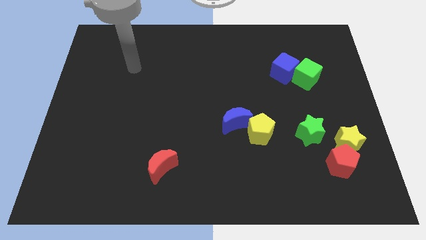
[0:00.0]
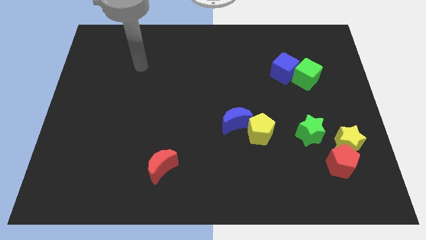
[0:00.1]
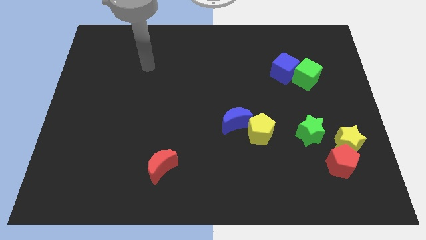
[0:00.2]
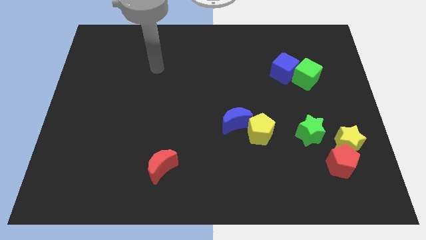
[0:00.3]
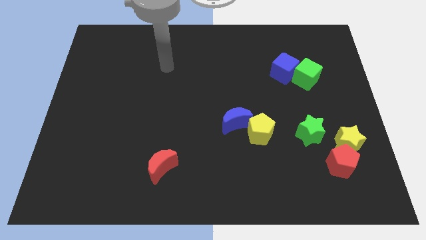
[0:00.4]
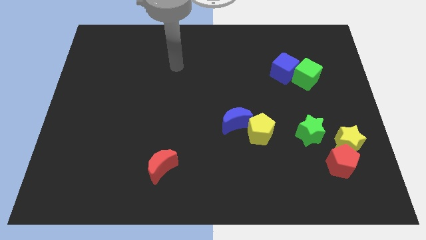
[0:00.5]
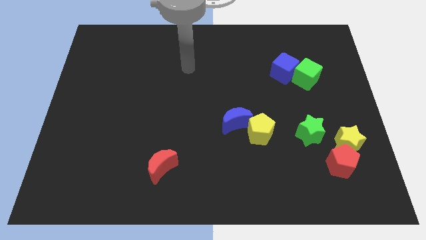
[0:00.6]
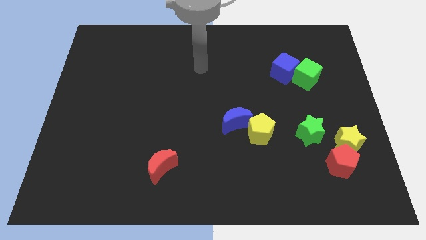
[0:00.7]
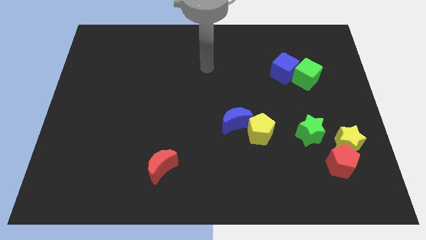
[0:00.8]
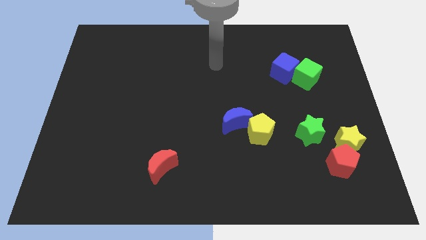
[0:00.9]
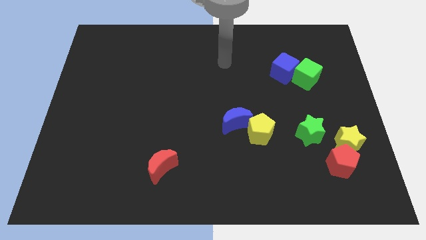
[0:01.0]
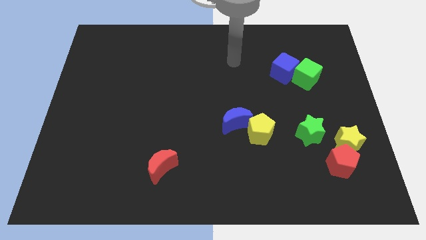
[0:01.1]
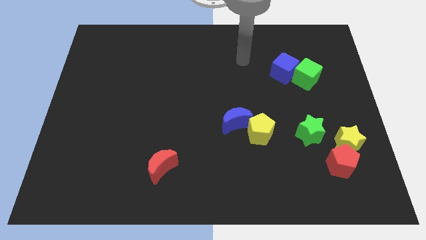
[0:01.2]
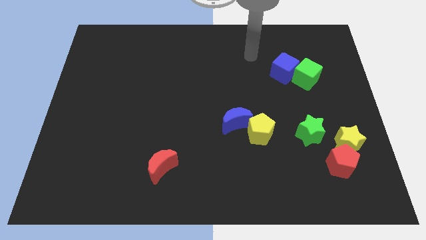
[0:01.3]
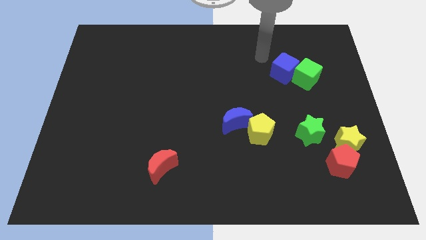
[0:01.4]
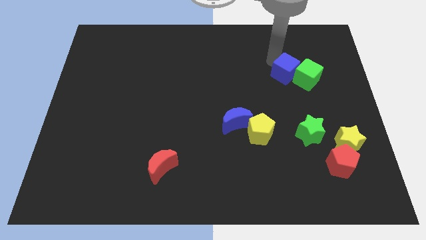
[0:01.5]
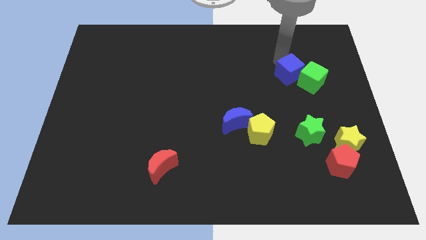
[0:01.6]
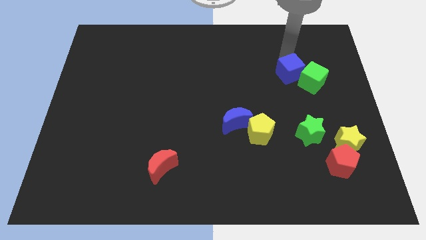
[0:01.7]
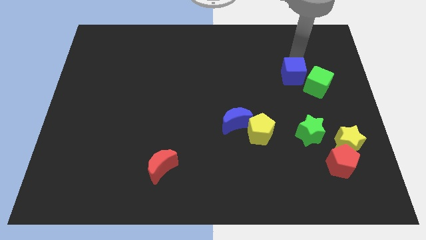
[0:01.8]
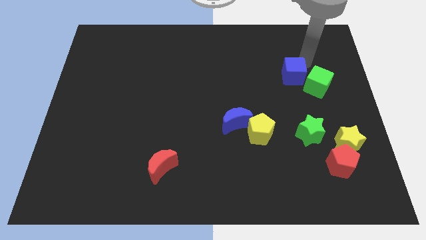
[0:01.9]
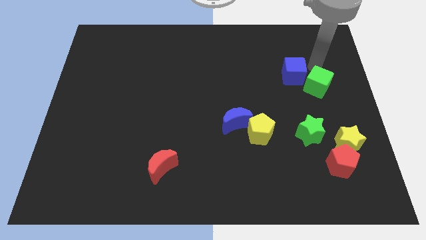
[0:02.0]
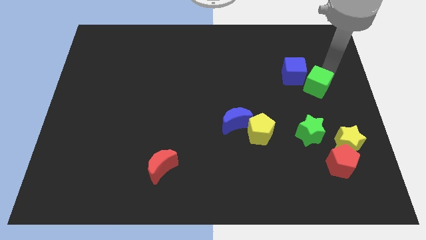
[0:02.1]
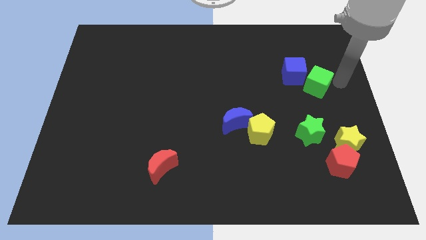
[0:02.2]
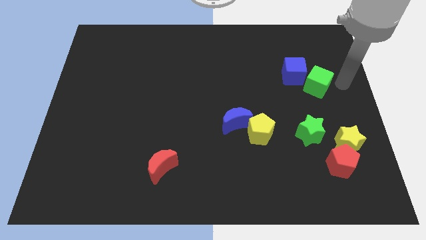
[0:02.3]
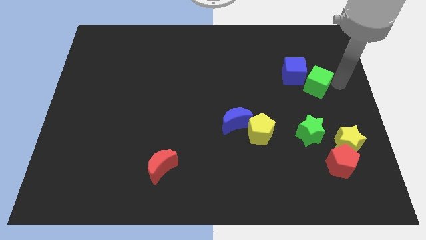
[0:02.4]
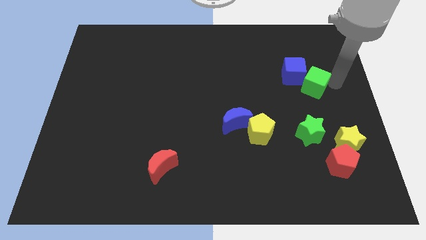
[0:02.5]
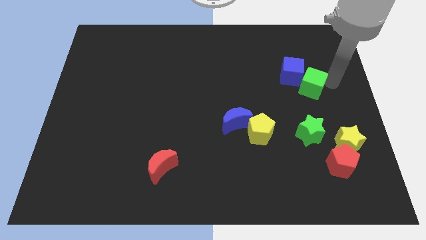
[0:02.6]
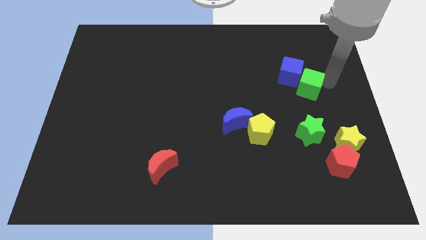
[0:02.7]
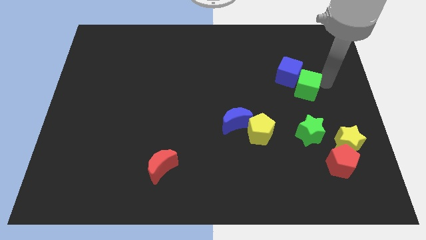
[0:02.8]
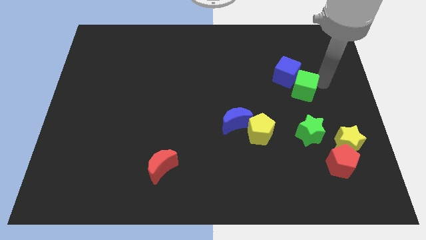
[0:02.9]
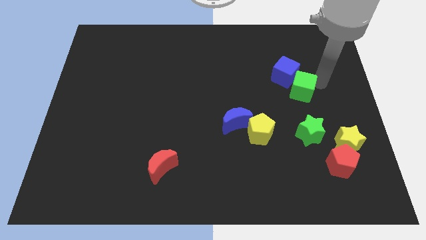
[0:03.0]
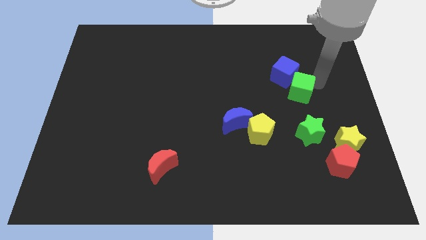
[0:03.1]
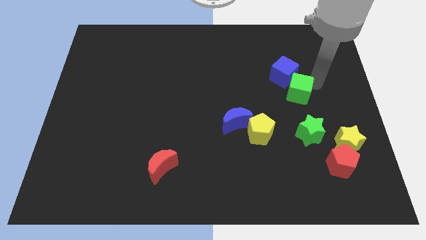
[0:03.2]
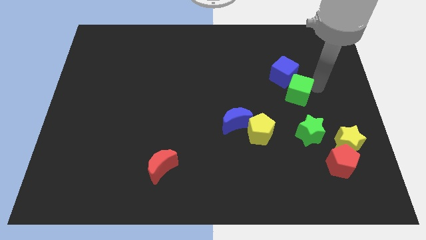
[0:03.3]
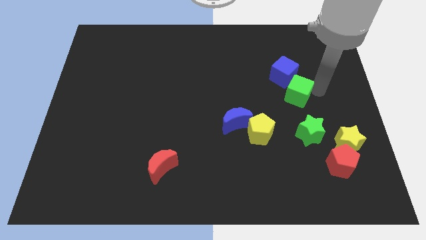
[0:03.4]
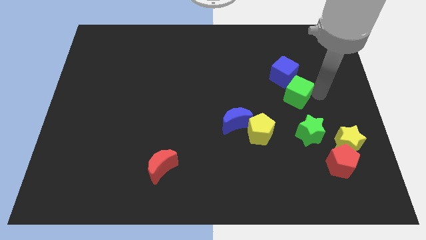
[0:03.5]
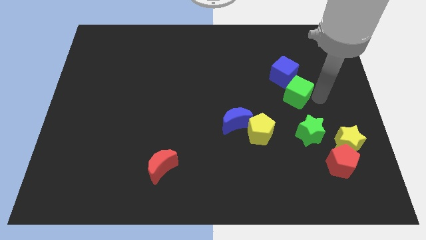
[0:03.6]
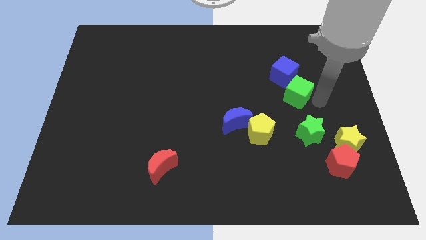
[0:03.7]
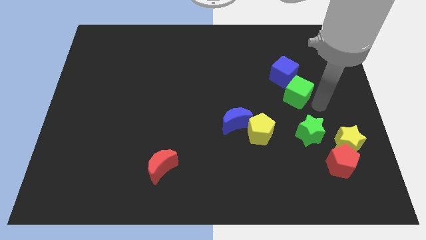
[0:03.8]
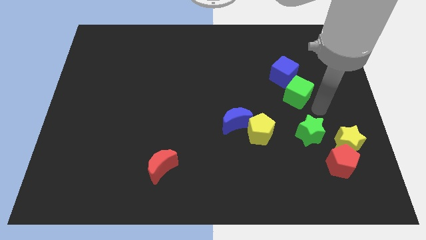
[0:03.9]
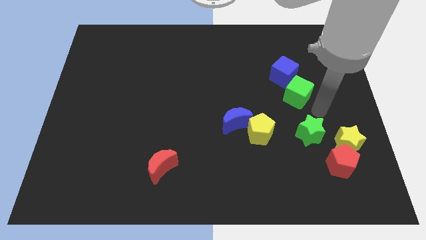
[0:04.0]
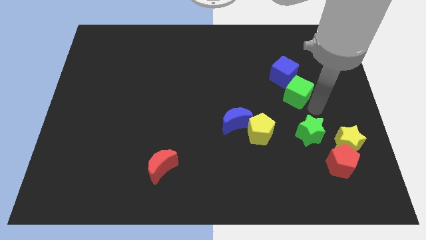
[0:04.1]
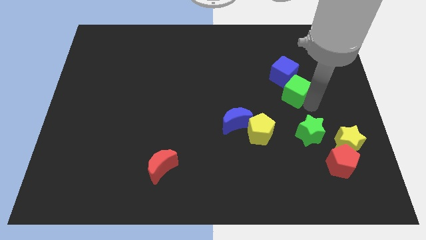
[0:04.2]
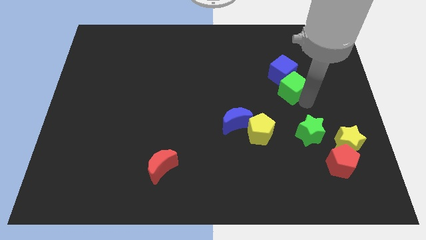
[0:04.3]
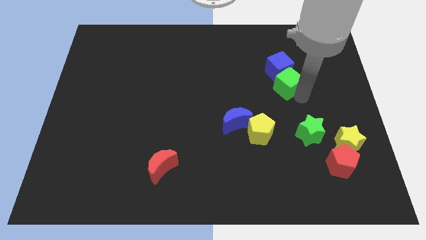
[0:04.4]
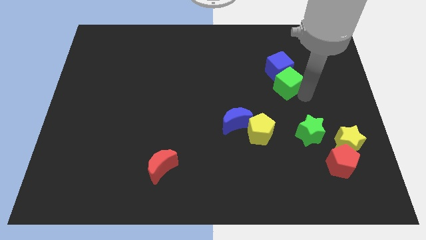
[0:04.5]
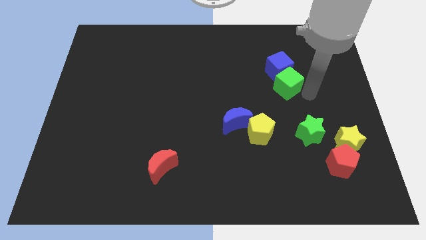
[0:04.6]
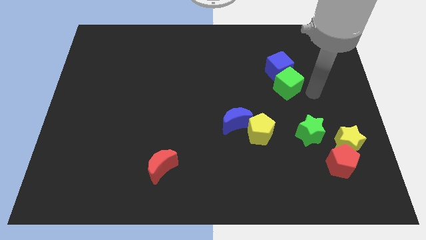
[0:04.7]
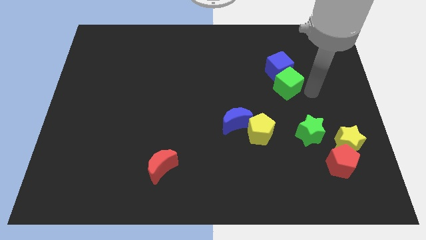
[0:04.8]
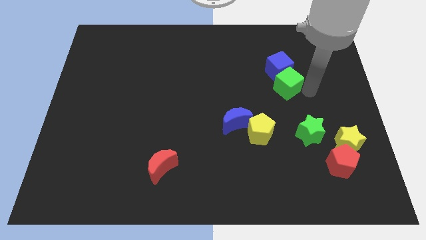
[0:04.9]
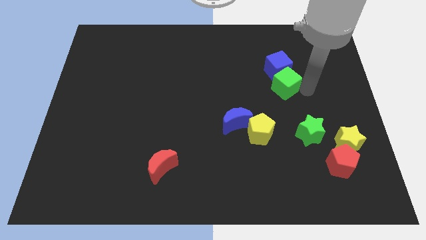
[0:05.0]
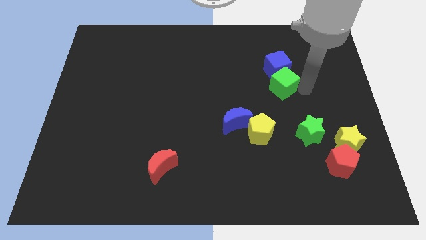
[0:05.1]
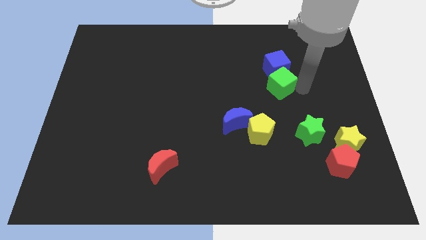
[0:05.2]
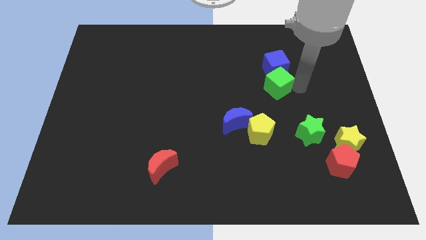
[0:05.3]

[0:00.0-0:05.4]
move the green cube to the left a little bit

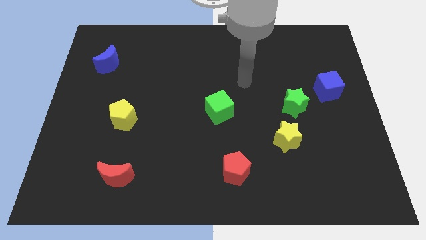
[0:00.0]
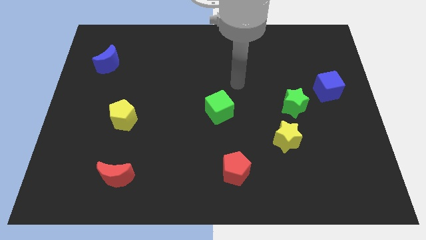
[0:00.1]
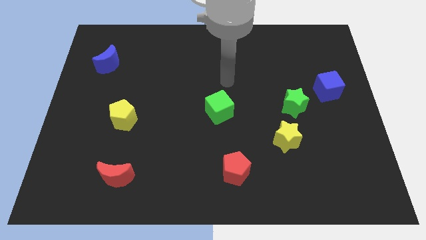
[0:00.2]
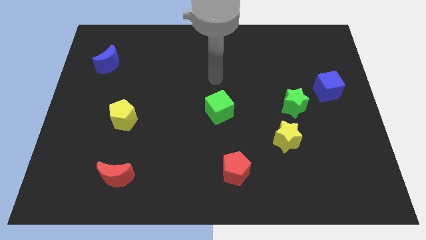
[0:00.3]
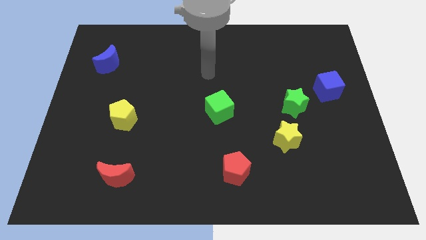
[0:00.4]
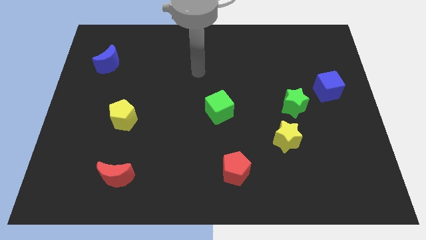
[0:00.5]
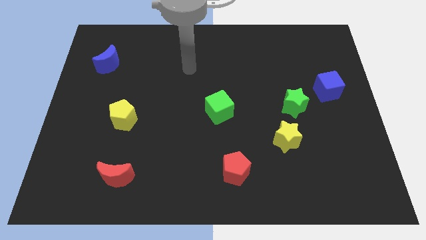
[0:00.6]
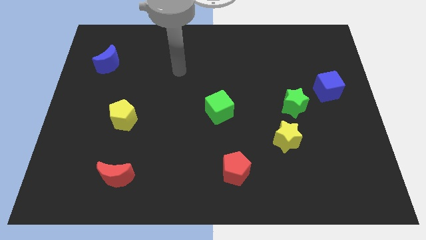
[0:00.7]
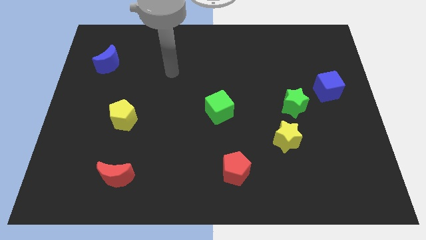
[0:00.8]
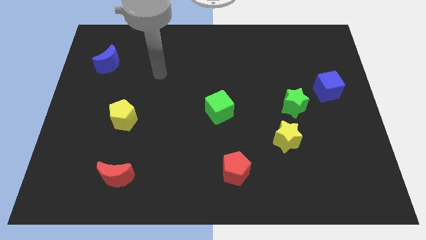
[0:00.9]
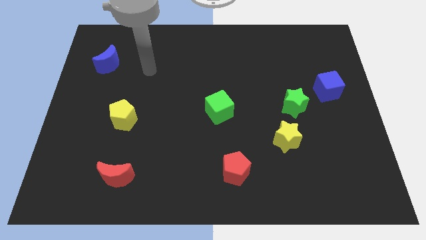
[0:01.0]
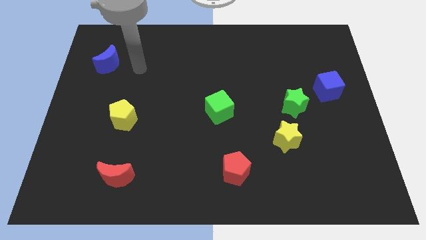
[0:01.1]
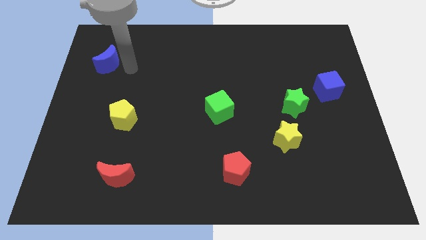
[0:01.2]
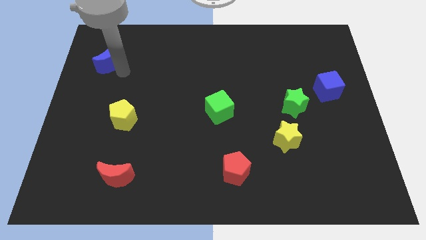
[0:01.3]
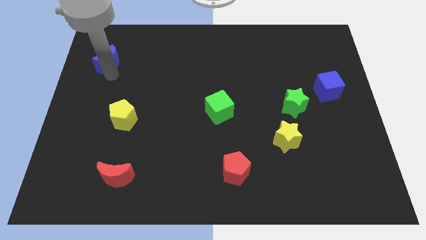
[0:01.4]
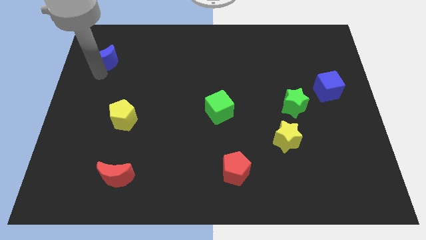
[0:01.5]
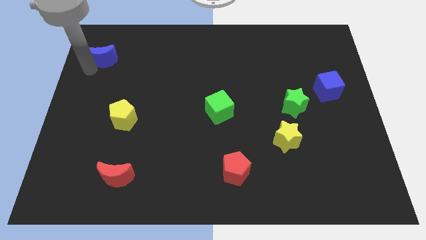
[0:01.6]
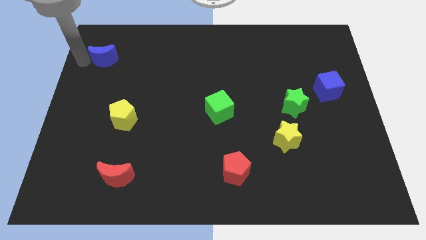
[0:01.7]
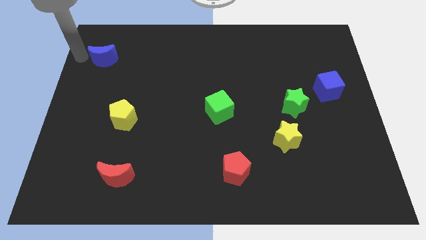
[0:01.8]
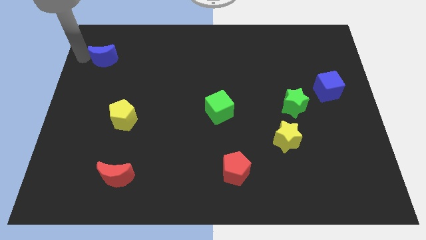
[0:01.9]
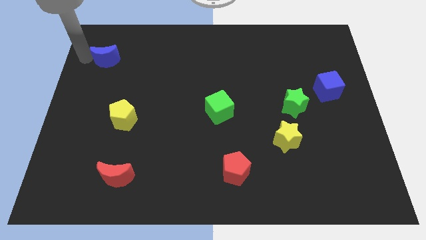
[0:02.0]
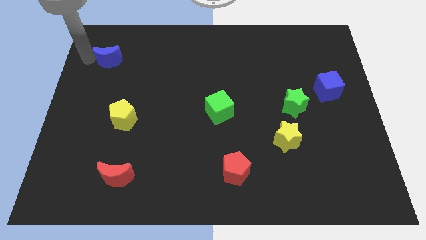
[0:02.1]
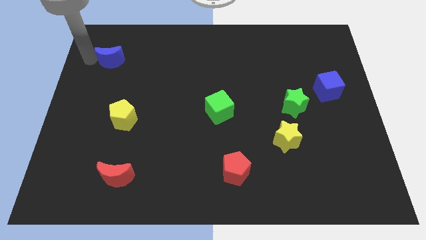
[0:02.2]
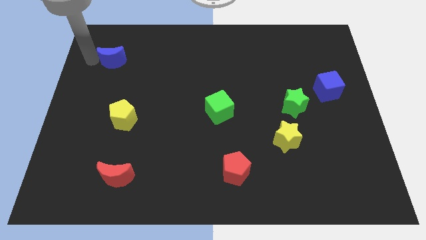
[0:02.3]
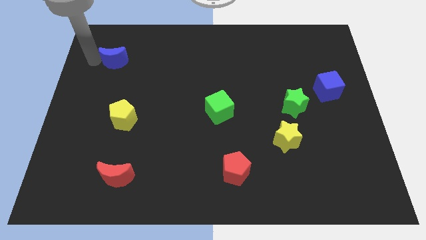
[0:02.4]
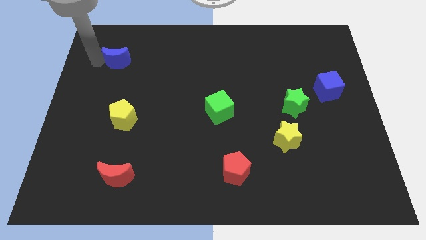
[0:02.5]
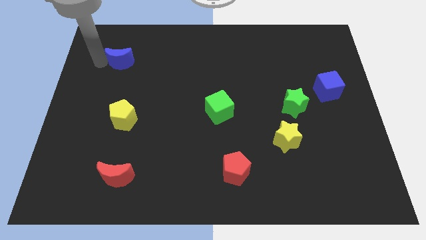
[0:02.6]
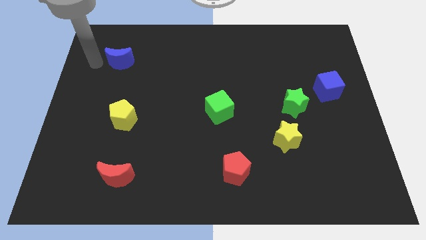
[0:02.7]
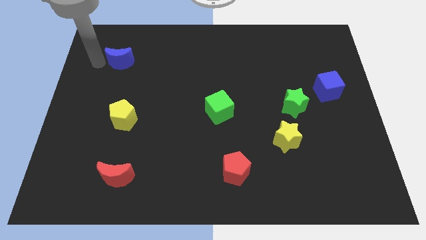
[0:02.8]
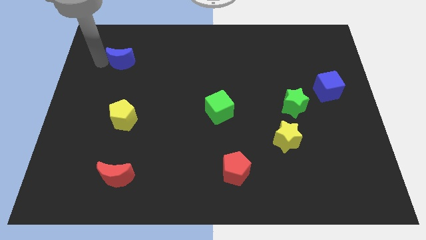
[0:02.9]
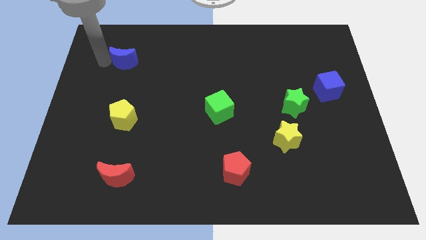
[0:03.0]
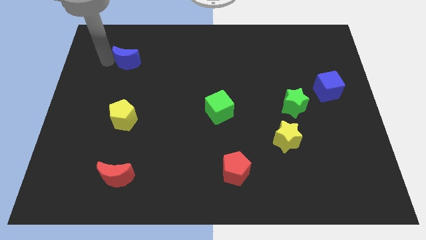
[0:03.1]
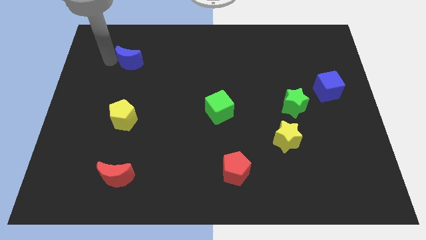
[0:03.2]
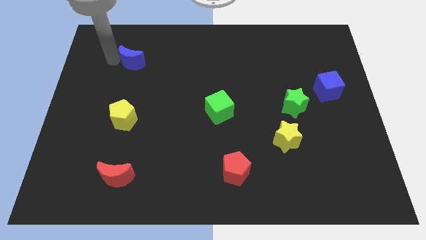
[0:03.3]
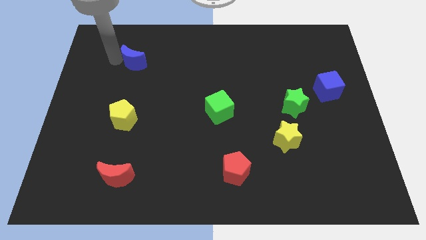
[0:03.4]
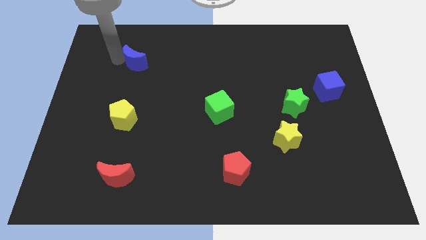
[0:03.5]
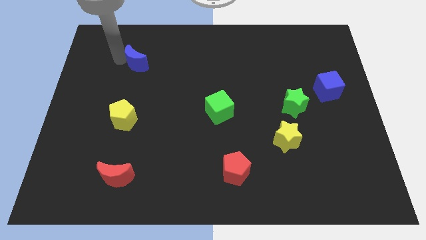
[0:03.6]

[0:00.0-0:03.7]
move the blue moon right a bit
